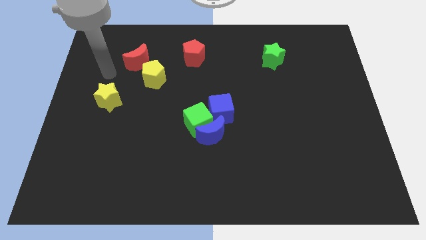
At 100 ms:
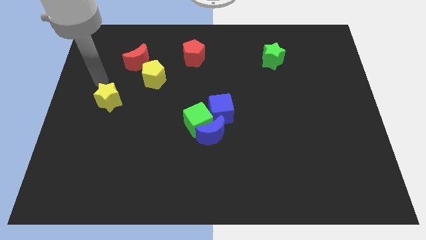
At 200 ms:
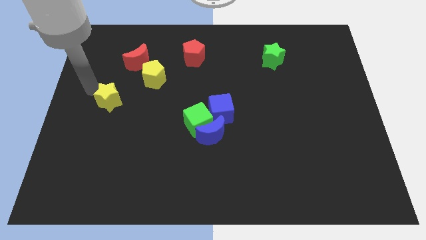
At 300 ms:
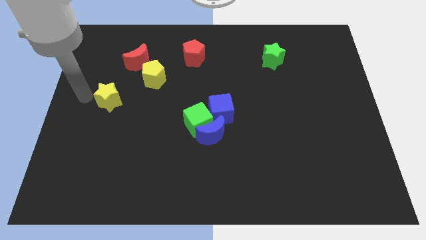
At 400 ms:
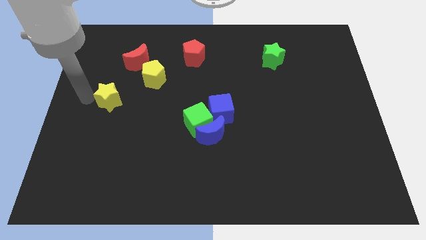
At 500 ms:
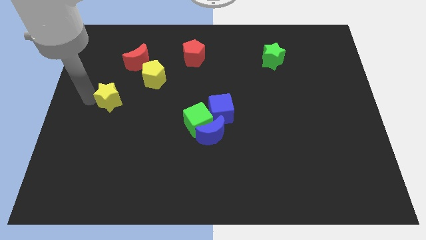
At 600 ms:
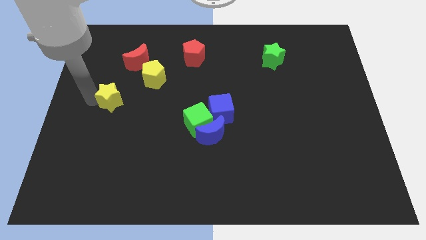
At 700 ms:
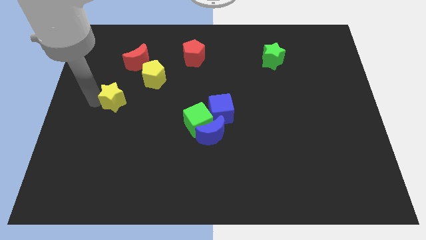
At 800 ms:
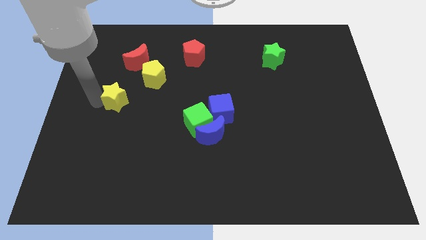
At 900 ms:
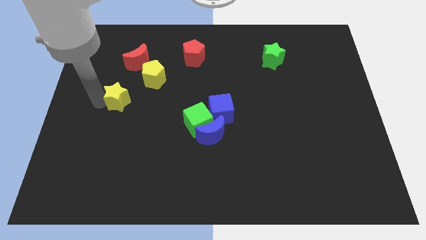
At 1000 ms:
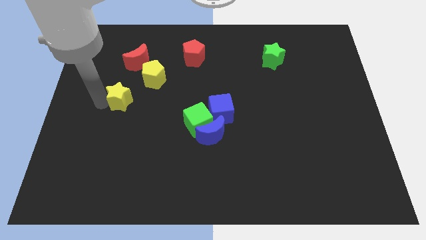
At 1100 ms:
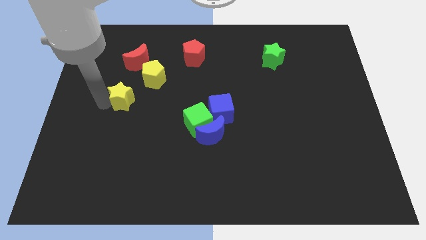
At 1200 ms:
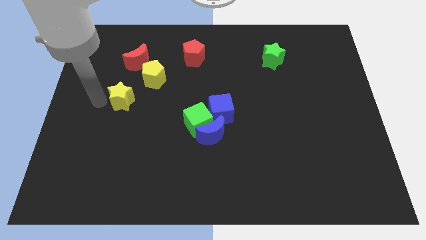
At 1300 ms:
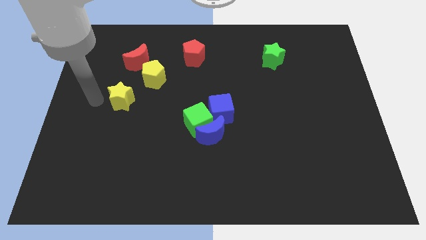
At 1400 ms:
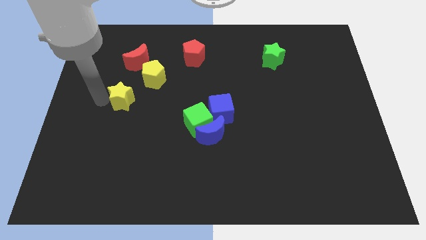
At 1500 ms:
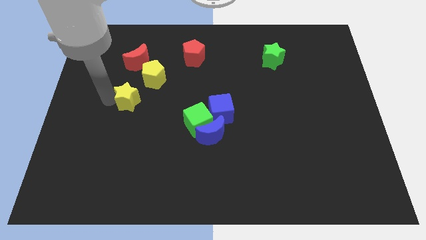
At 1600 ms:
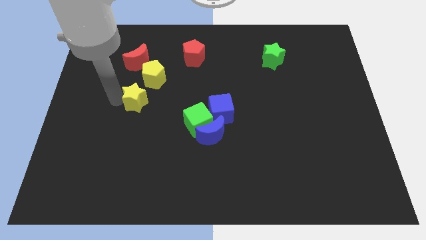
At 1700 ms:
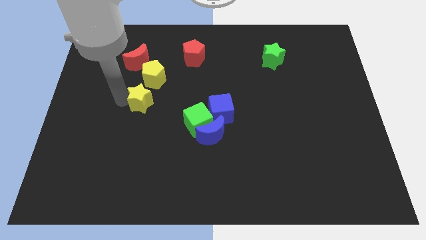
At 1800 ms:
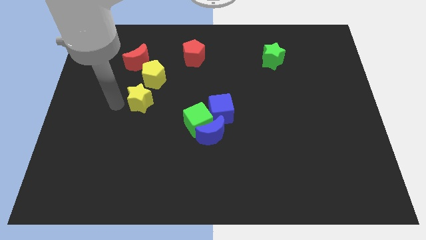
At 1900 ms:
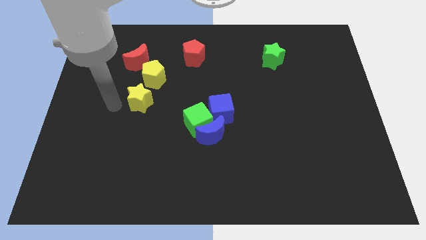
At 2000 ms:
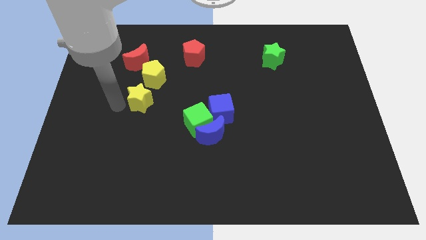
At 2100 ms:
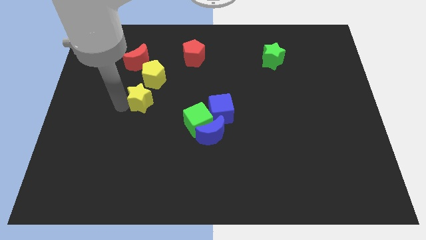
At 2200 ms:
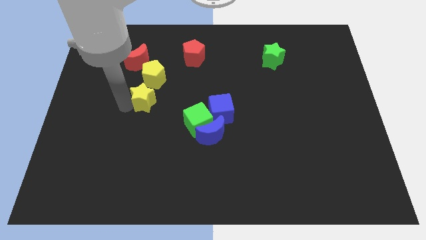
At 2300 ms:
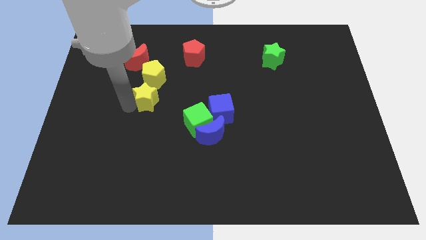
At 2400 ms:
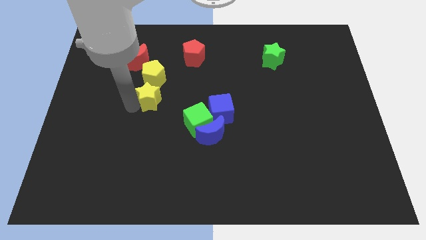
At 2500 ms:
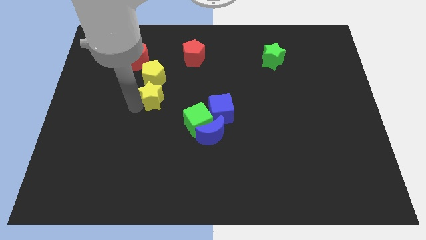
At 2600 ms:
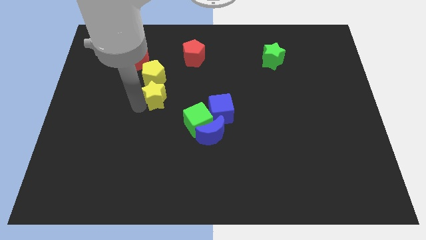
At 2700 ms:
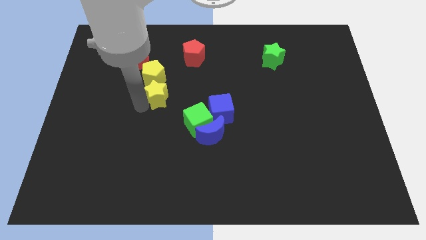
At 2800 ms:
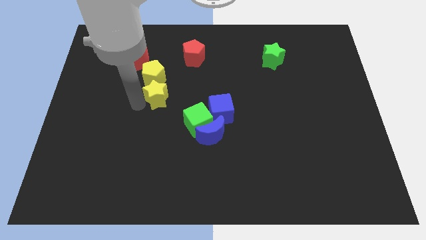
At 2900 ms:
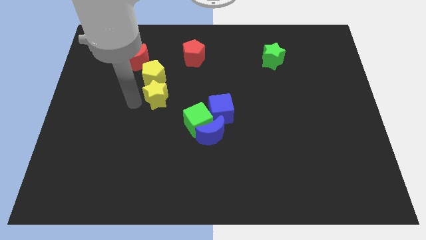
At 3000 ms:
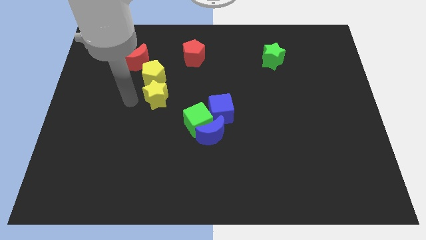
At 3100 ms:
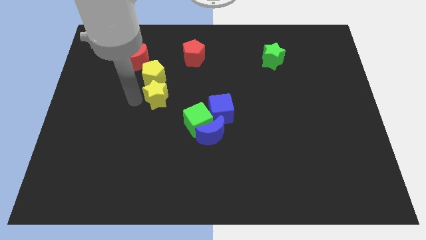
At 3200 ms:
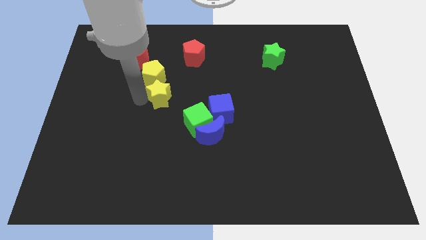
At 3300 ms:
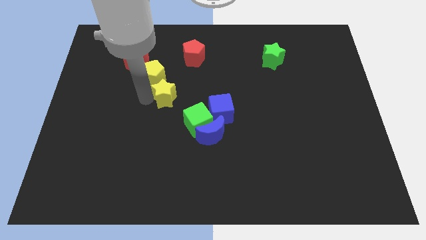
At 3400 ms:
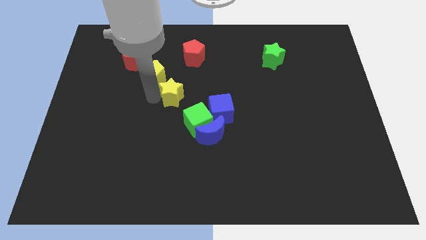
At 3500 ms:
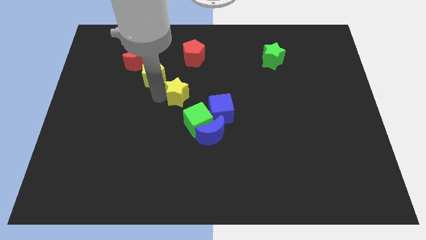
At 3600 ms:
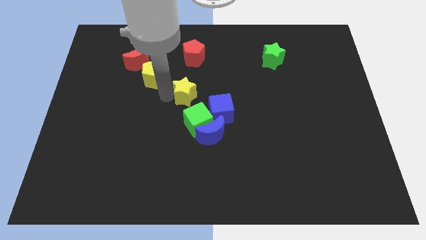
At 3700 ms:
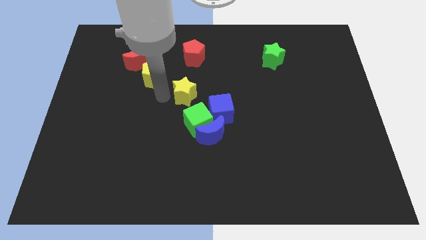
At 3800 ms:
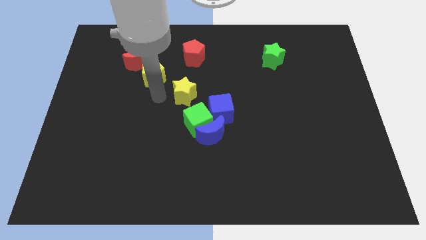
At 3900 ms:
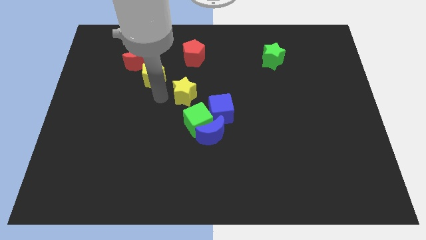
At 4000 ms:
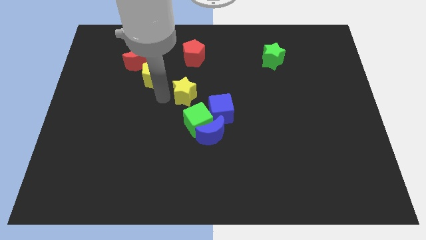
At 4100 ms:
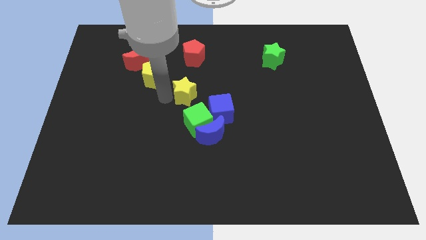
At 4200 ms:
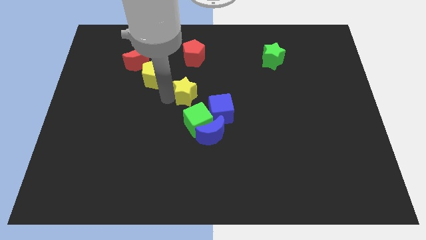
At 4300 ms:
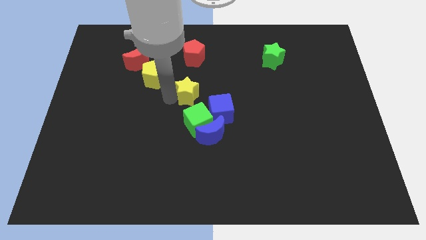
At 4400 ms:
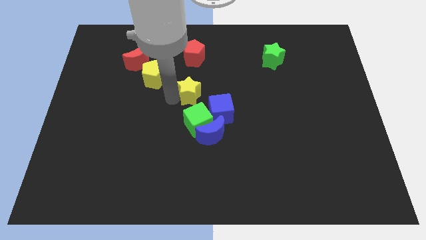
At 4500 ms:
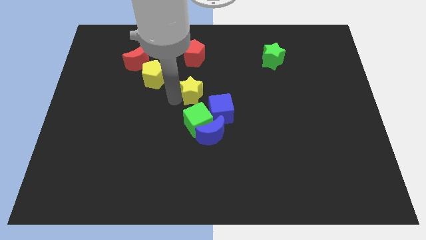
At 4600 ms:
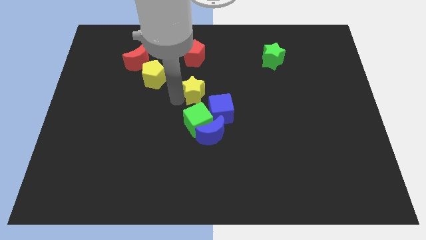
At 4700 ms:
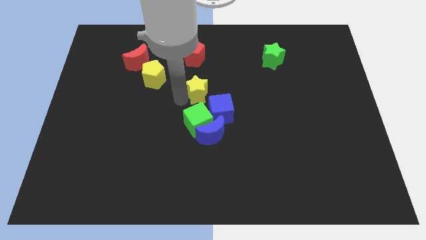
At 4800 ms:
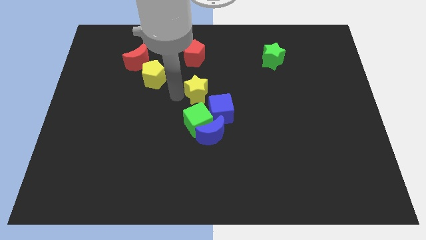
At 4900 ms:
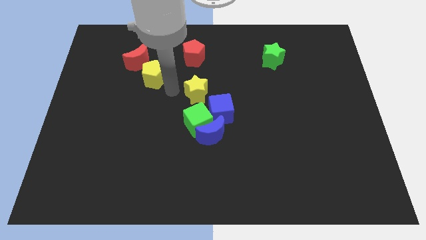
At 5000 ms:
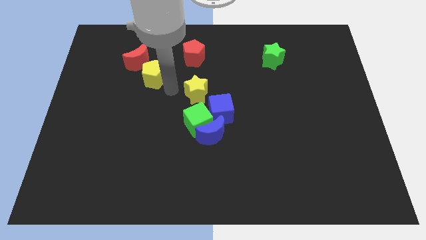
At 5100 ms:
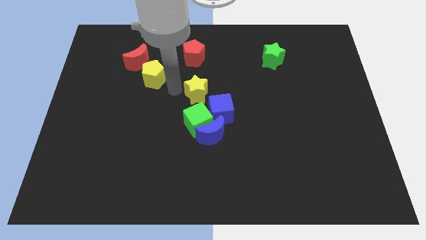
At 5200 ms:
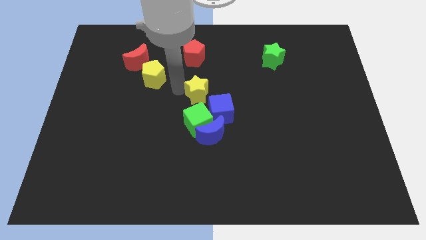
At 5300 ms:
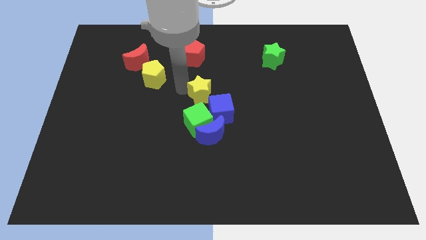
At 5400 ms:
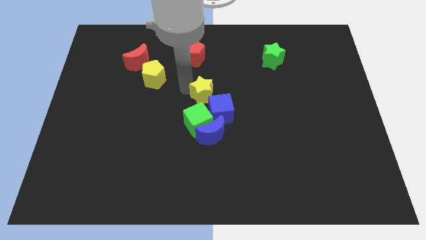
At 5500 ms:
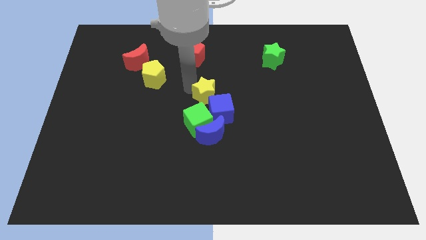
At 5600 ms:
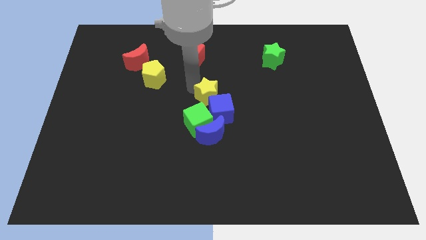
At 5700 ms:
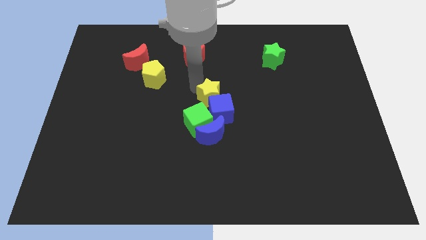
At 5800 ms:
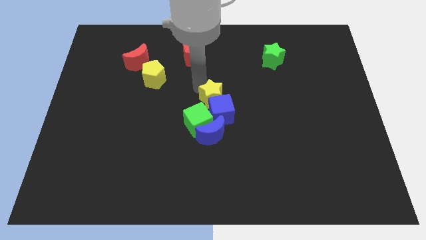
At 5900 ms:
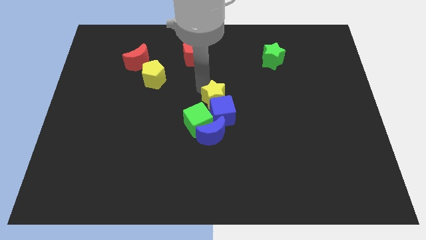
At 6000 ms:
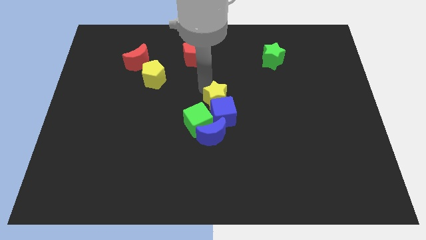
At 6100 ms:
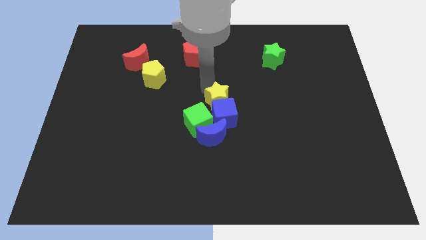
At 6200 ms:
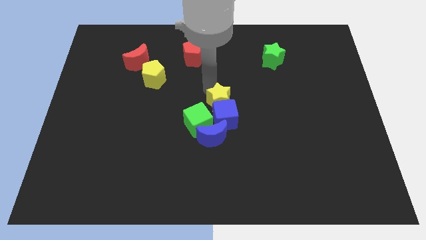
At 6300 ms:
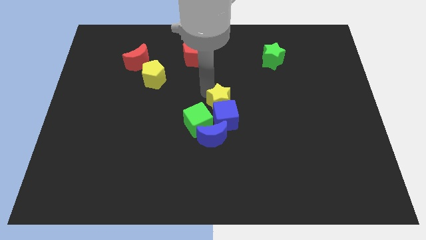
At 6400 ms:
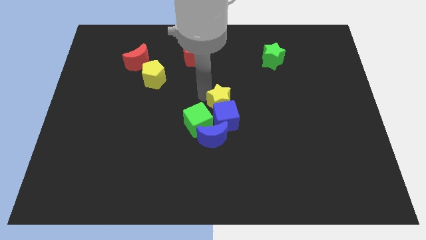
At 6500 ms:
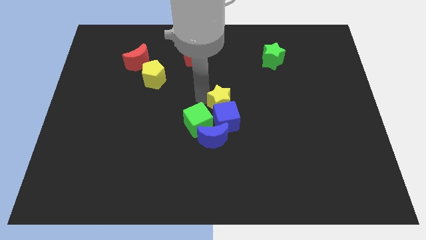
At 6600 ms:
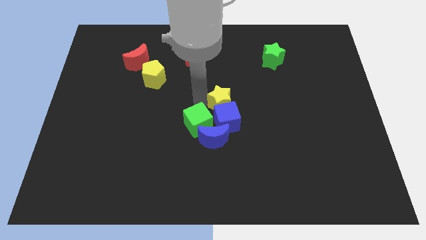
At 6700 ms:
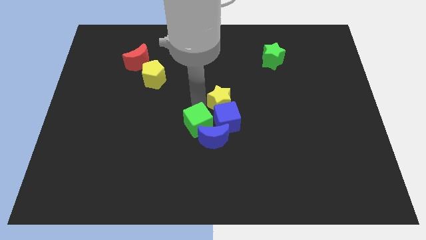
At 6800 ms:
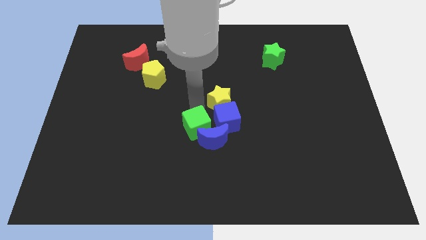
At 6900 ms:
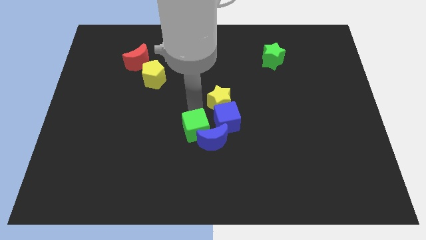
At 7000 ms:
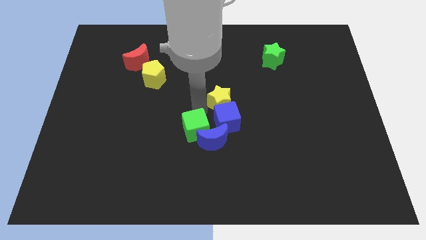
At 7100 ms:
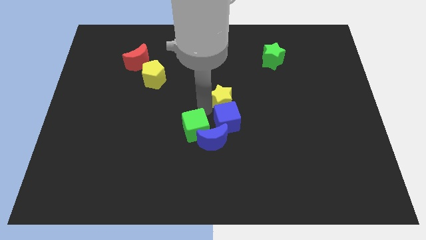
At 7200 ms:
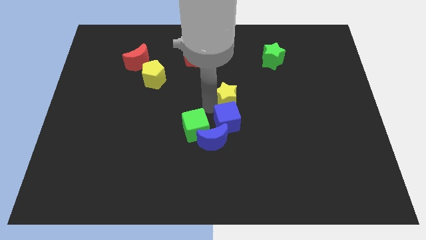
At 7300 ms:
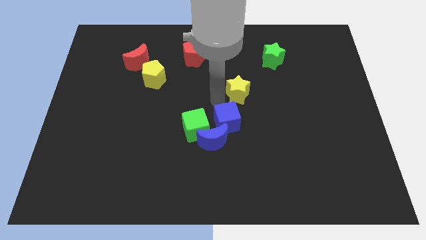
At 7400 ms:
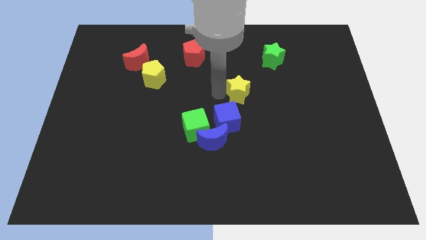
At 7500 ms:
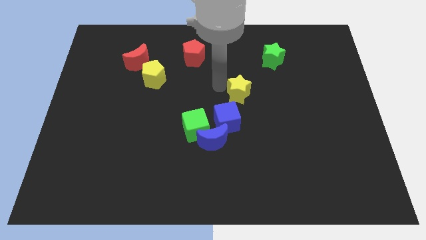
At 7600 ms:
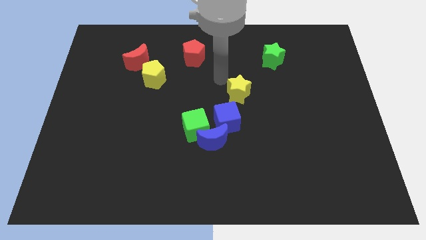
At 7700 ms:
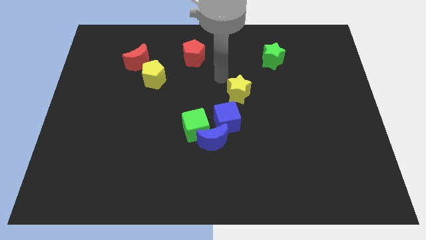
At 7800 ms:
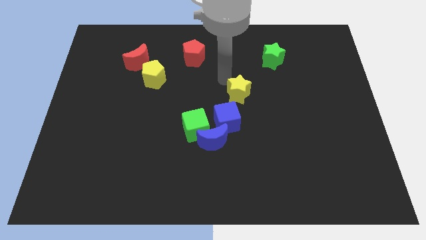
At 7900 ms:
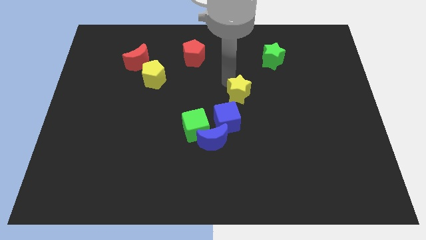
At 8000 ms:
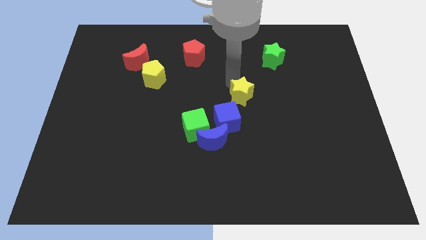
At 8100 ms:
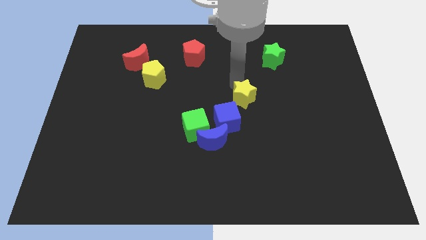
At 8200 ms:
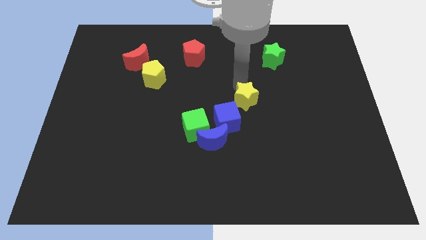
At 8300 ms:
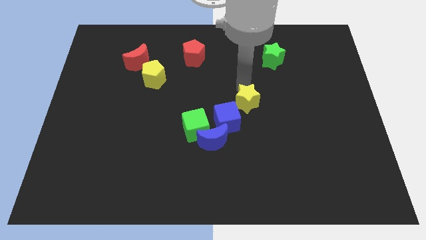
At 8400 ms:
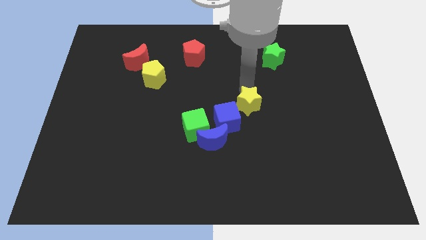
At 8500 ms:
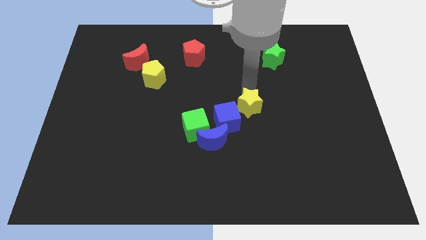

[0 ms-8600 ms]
slide the yellow star to the right side of the blue cube
